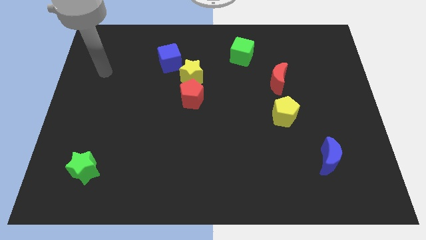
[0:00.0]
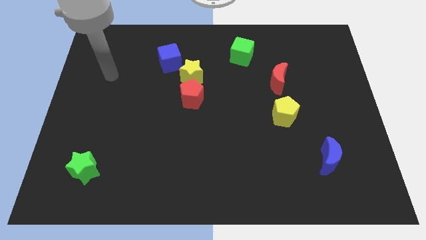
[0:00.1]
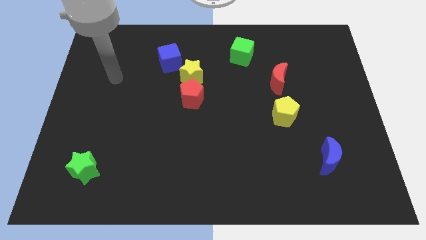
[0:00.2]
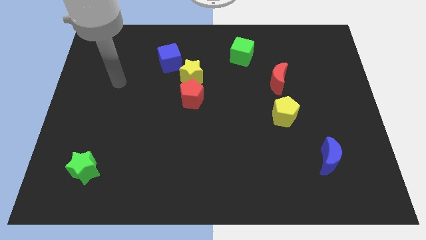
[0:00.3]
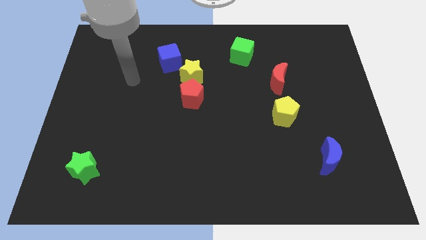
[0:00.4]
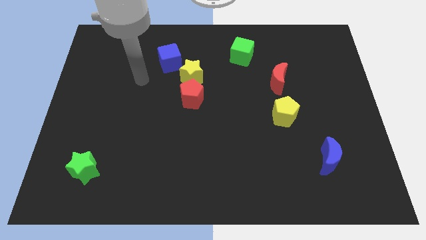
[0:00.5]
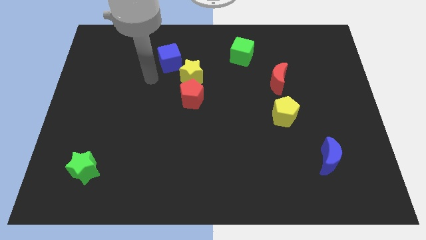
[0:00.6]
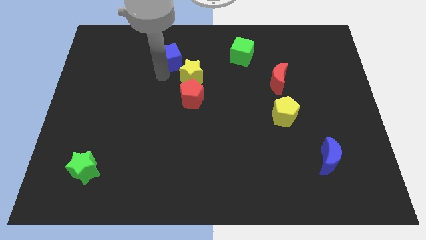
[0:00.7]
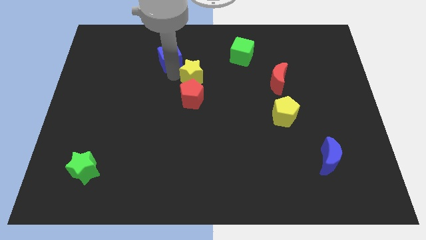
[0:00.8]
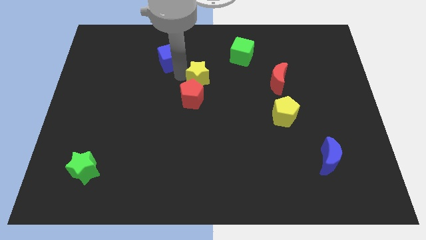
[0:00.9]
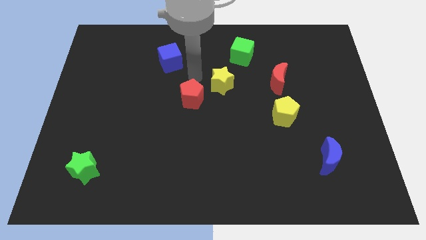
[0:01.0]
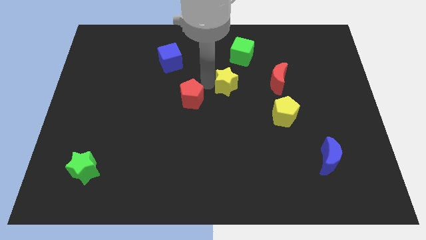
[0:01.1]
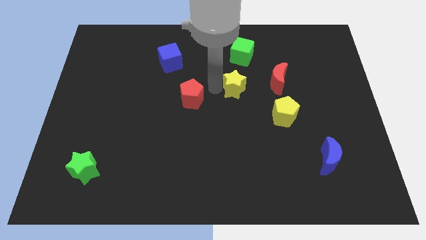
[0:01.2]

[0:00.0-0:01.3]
move the red pentagon away from the yellow star

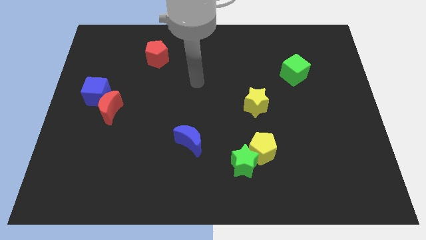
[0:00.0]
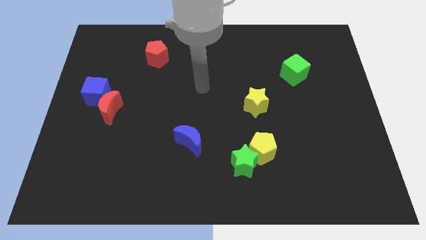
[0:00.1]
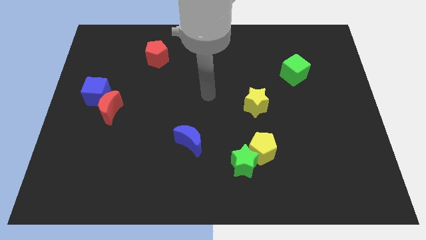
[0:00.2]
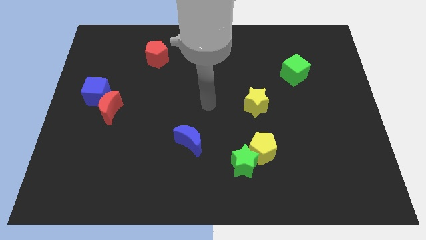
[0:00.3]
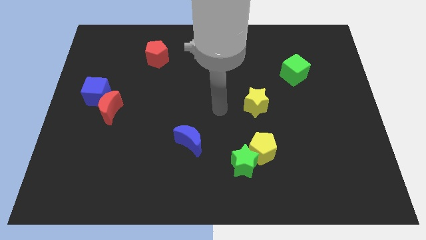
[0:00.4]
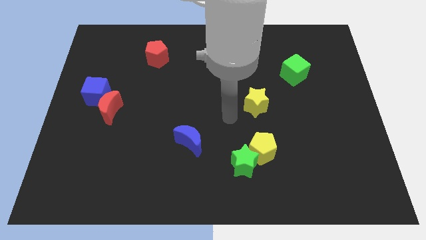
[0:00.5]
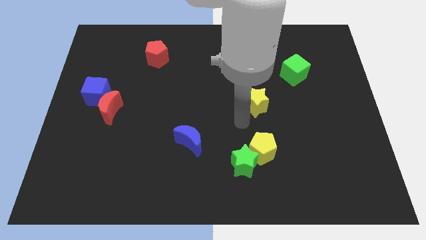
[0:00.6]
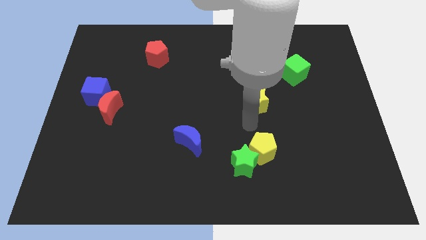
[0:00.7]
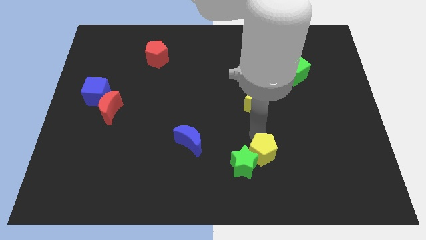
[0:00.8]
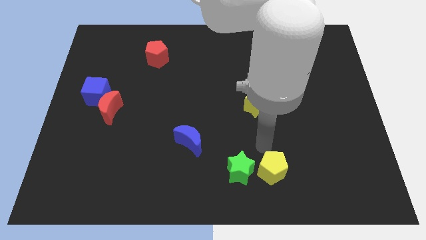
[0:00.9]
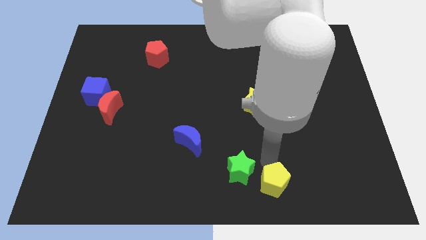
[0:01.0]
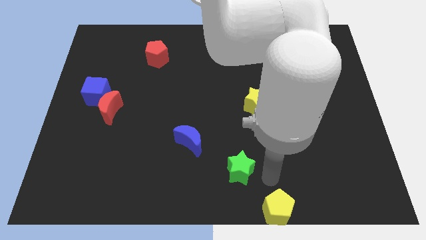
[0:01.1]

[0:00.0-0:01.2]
move the green star away from the yellow pentagon

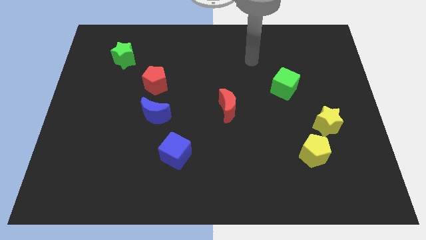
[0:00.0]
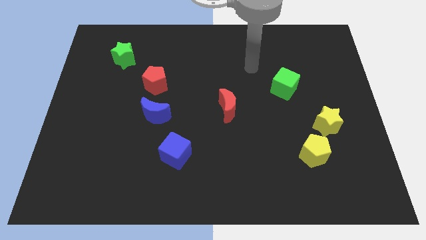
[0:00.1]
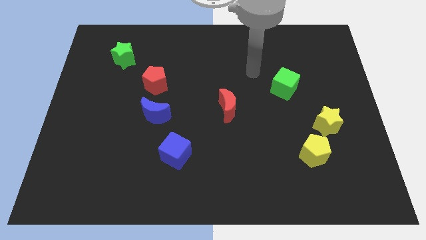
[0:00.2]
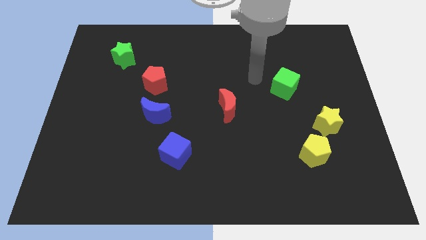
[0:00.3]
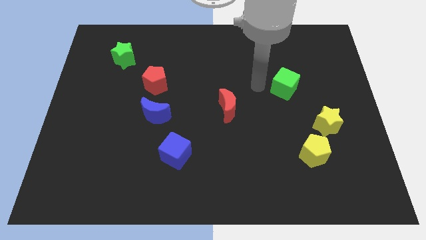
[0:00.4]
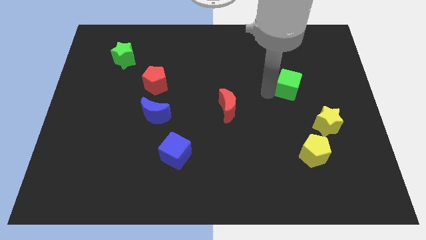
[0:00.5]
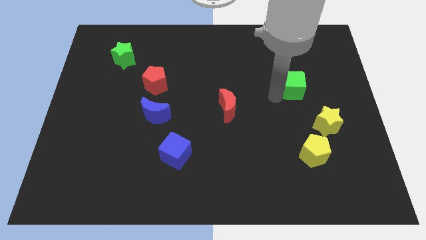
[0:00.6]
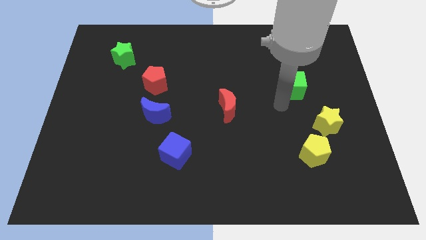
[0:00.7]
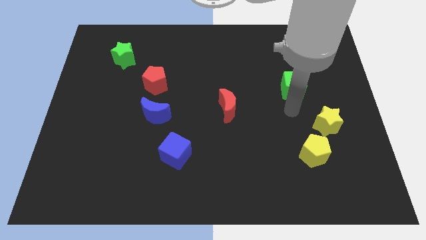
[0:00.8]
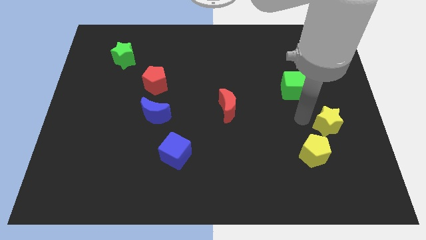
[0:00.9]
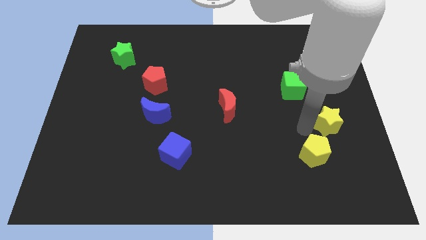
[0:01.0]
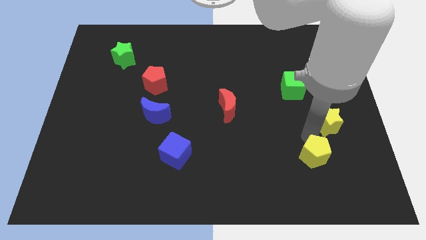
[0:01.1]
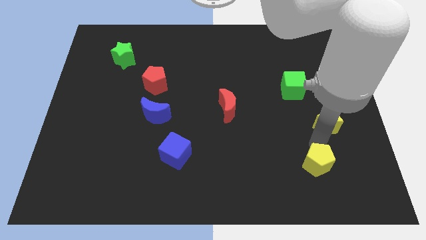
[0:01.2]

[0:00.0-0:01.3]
pull the yellow star apart from the yellow pentagon

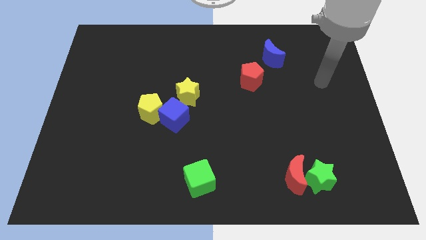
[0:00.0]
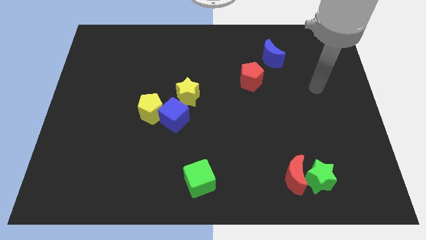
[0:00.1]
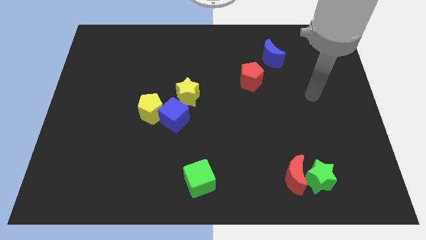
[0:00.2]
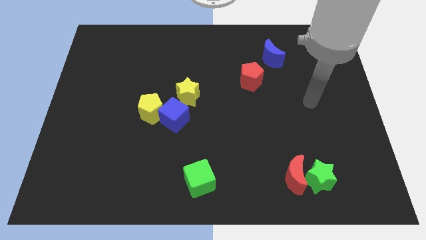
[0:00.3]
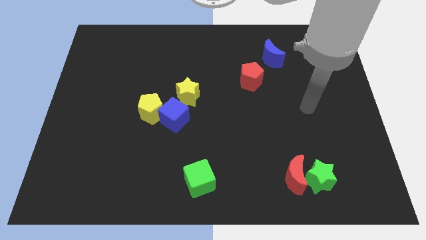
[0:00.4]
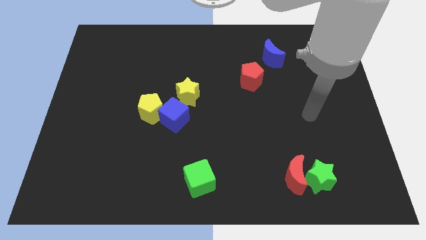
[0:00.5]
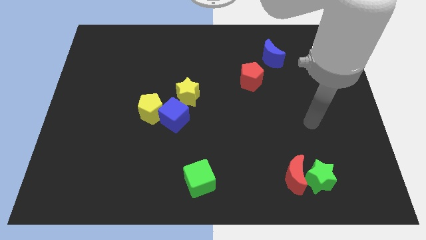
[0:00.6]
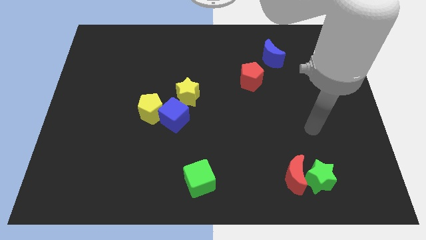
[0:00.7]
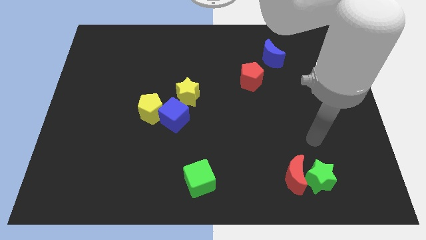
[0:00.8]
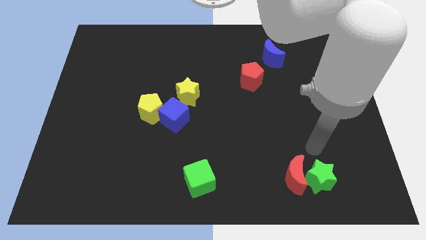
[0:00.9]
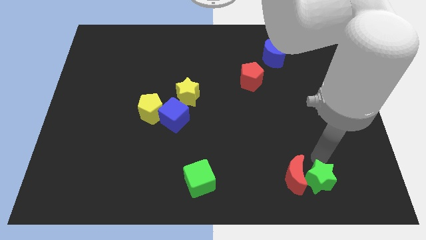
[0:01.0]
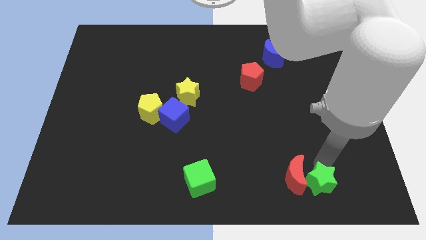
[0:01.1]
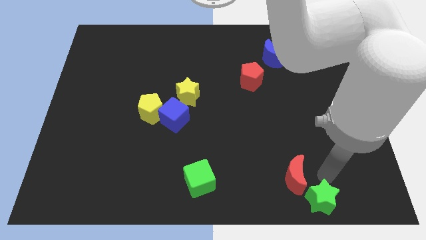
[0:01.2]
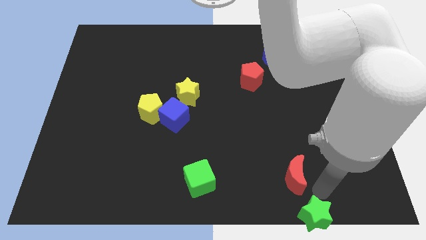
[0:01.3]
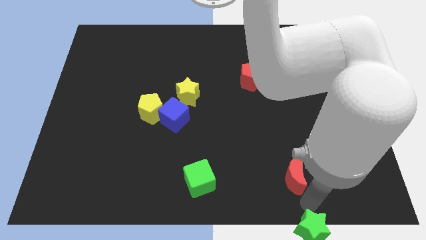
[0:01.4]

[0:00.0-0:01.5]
separate the red moon from the green star

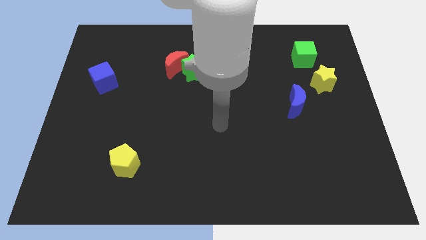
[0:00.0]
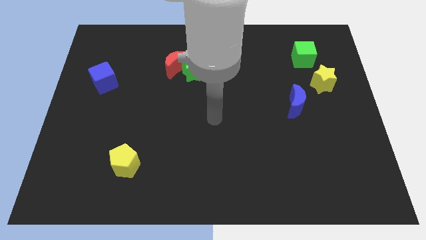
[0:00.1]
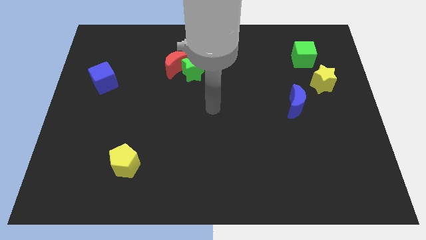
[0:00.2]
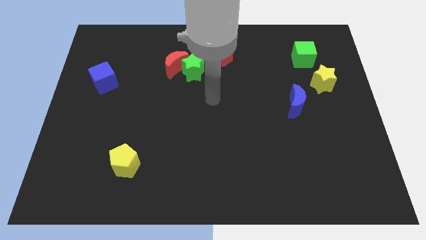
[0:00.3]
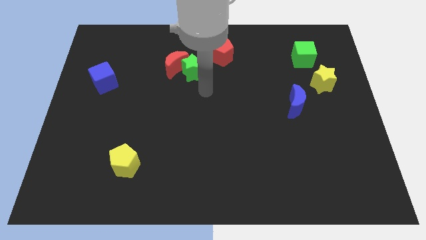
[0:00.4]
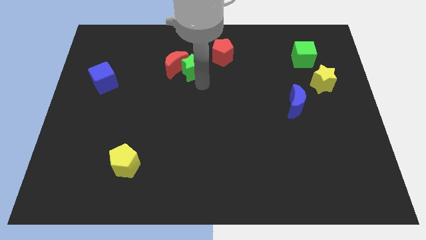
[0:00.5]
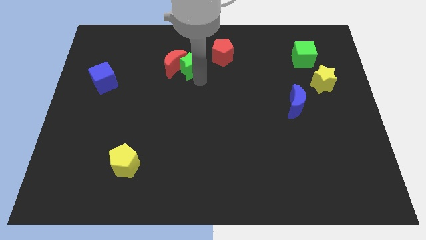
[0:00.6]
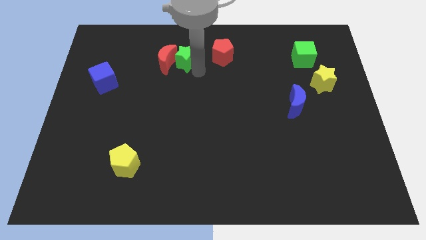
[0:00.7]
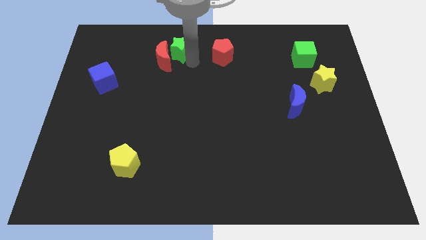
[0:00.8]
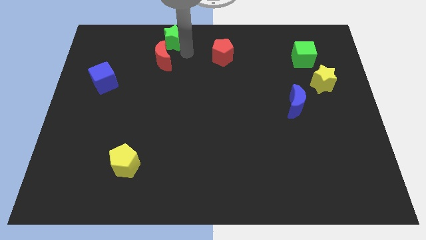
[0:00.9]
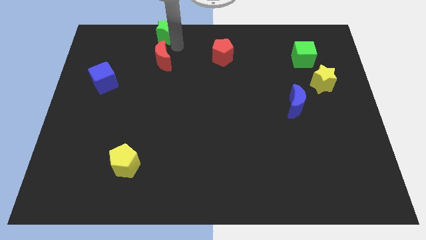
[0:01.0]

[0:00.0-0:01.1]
move the red moon away from the green star

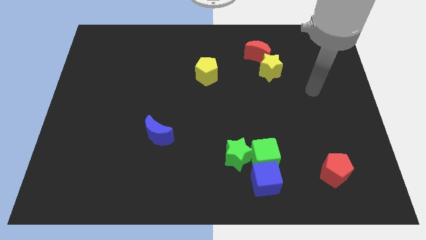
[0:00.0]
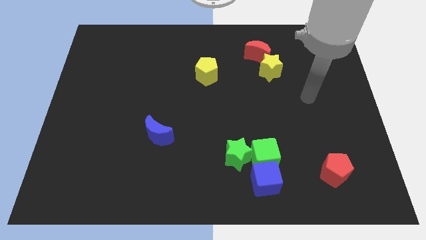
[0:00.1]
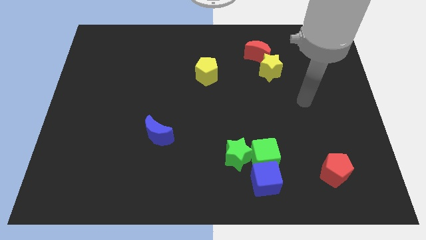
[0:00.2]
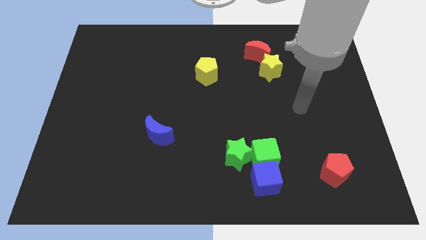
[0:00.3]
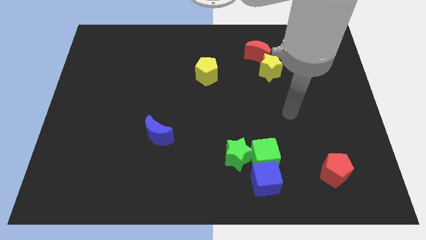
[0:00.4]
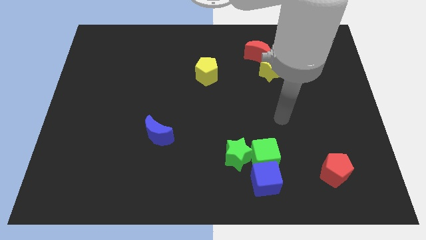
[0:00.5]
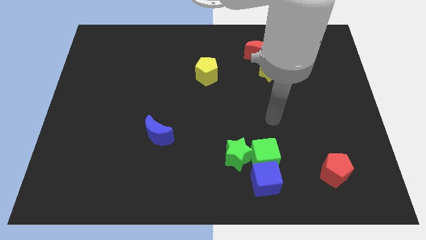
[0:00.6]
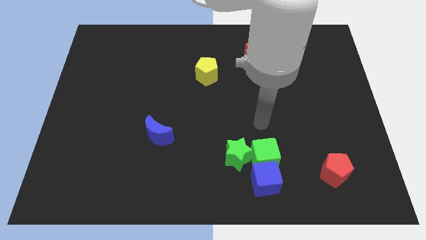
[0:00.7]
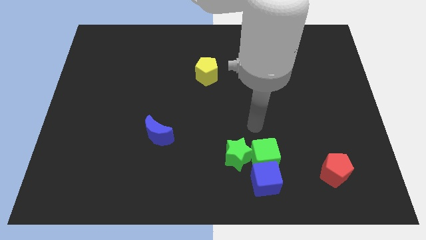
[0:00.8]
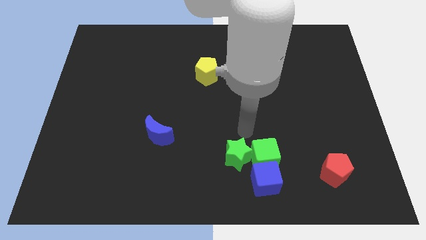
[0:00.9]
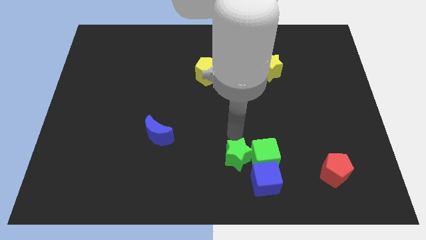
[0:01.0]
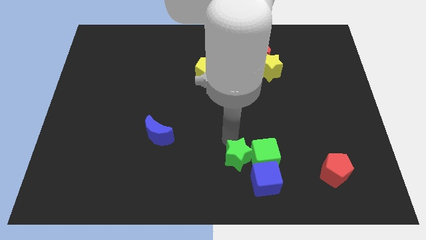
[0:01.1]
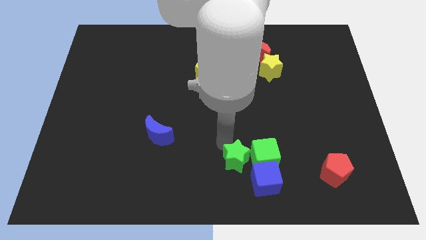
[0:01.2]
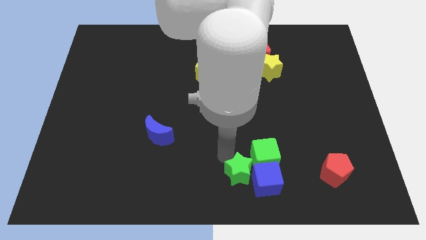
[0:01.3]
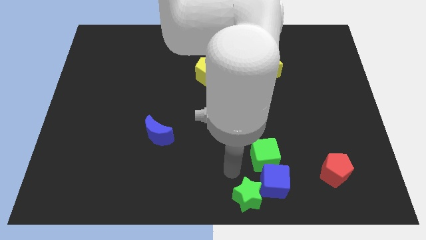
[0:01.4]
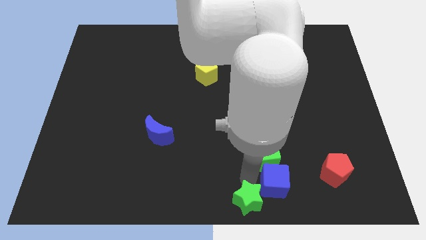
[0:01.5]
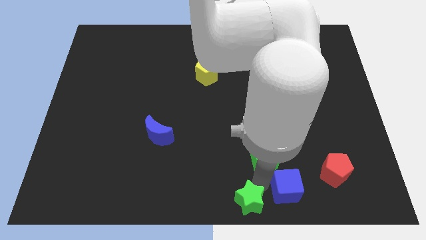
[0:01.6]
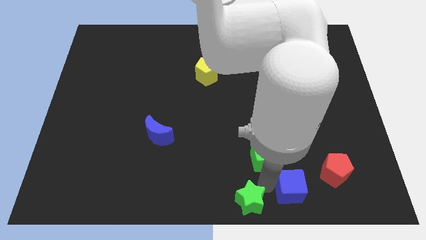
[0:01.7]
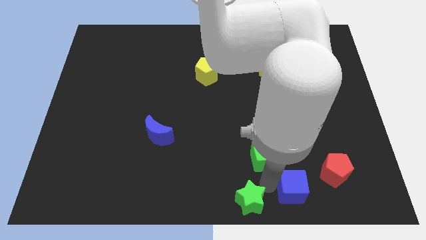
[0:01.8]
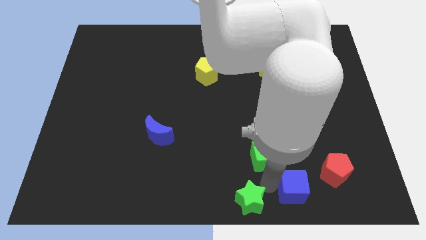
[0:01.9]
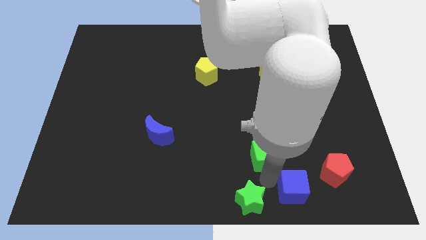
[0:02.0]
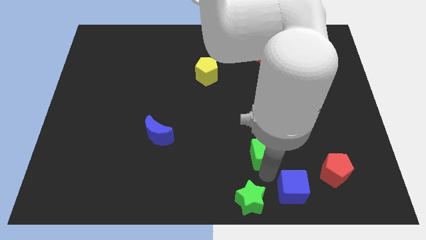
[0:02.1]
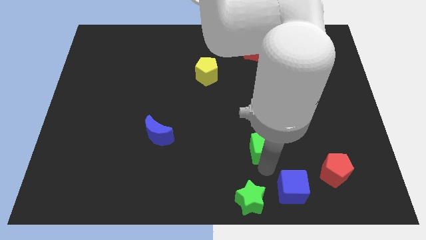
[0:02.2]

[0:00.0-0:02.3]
pull the green cube apart from the blue cube and green star

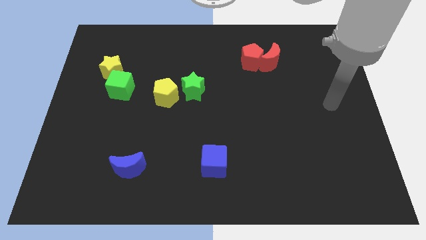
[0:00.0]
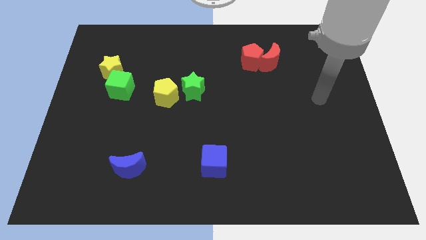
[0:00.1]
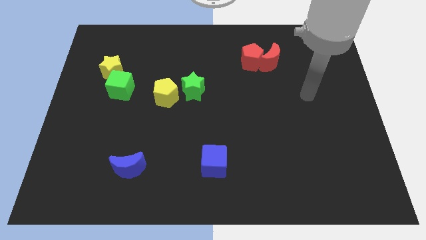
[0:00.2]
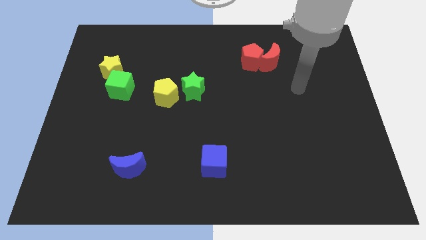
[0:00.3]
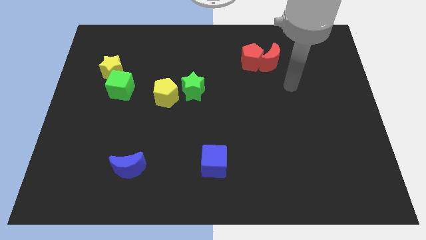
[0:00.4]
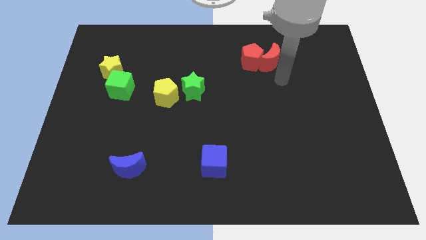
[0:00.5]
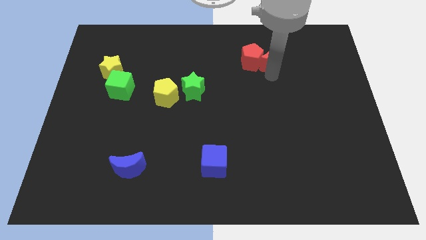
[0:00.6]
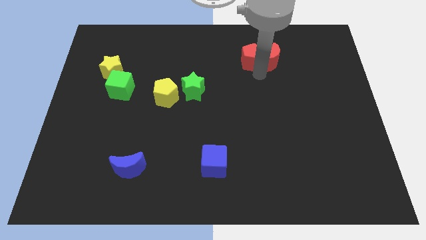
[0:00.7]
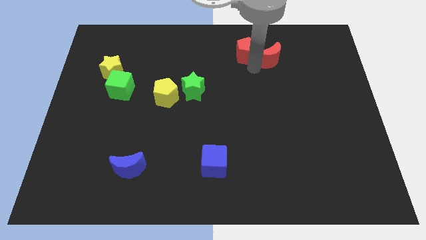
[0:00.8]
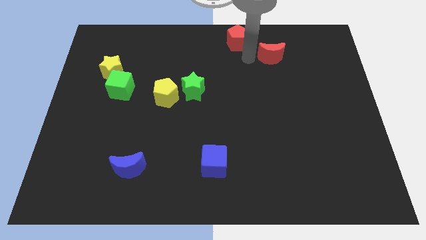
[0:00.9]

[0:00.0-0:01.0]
pull the red moon apart from the red pentagon
